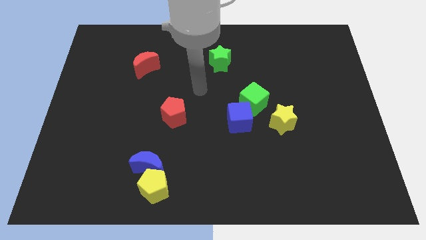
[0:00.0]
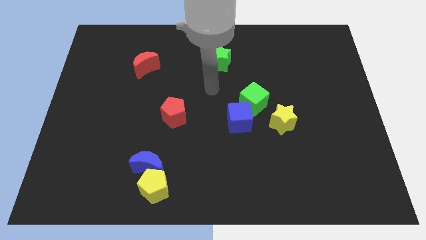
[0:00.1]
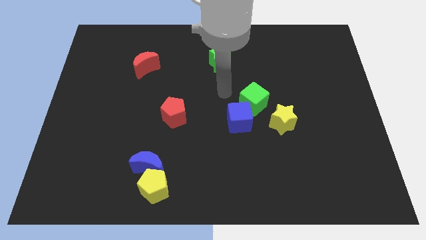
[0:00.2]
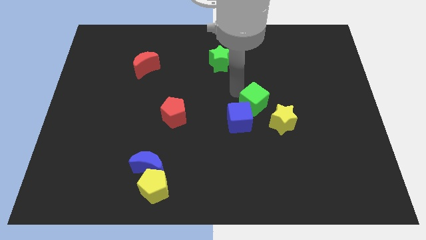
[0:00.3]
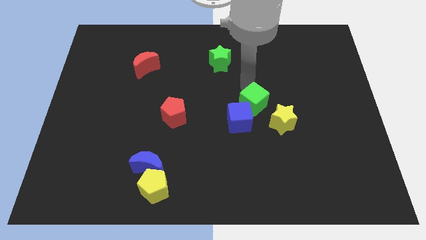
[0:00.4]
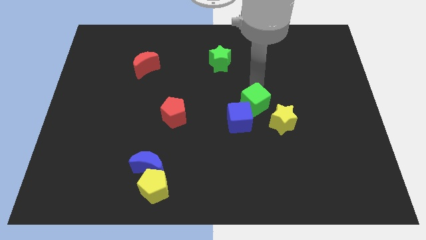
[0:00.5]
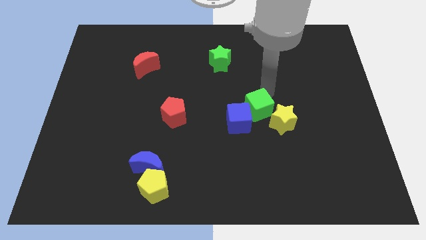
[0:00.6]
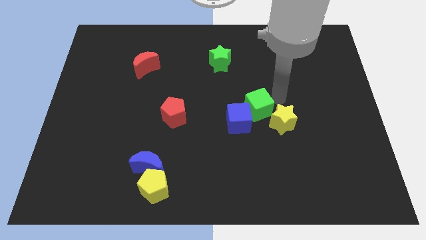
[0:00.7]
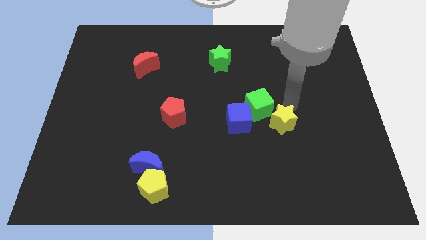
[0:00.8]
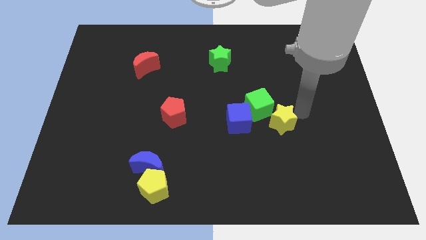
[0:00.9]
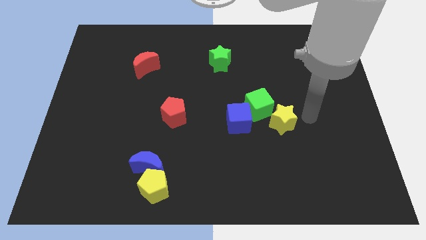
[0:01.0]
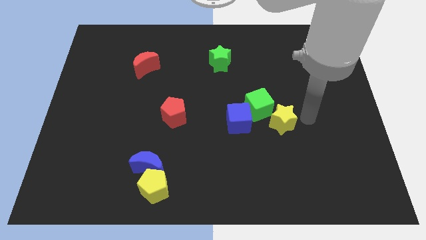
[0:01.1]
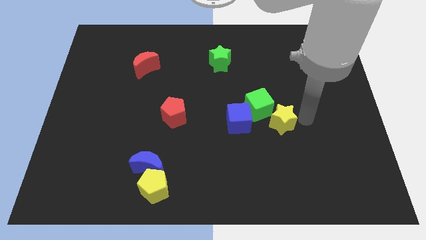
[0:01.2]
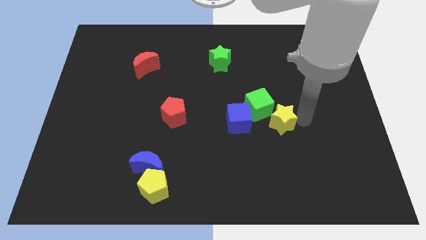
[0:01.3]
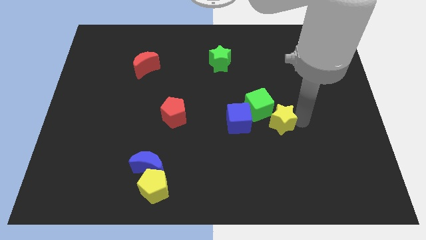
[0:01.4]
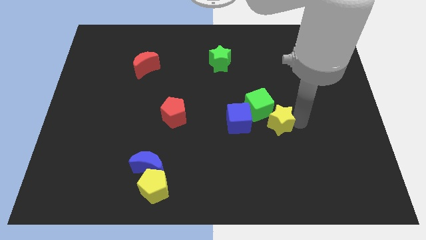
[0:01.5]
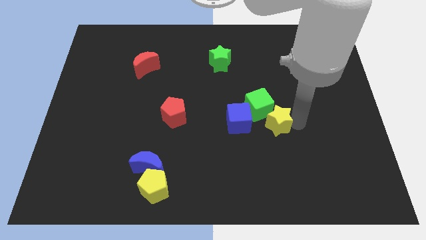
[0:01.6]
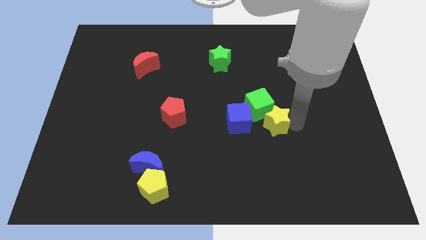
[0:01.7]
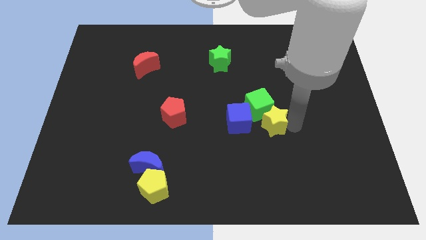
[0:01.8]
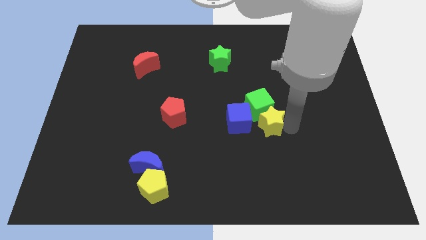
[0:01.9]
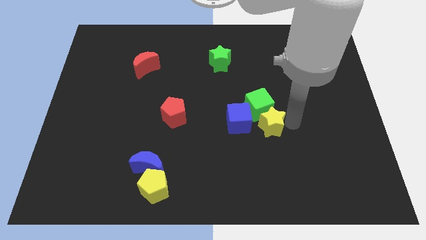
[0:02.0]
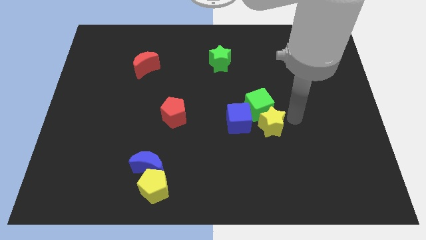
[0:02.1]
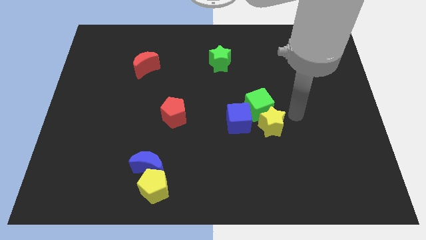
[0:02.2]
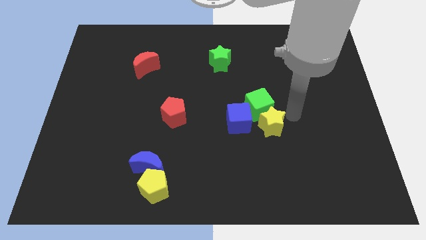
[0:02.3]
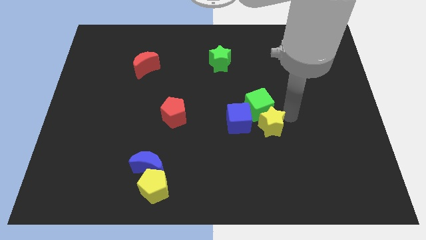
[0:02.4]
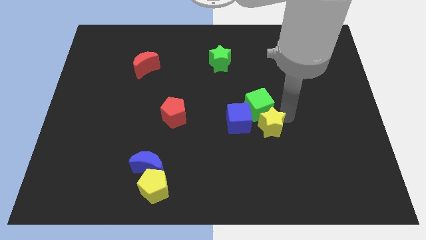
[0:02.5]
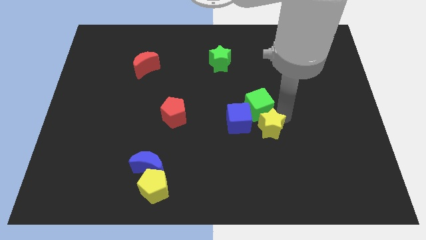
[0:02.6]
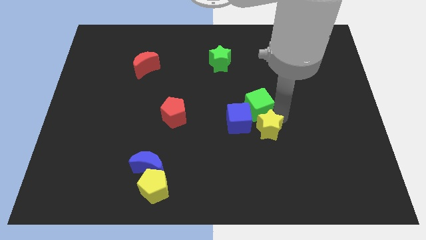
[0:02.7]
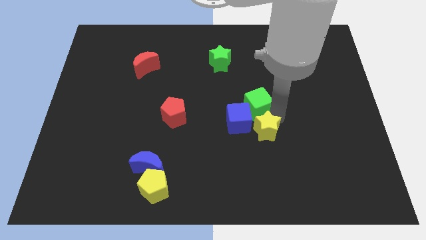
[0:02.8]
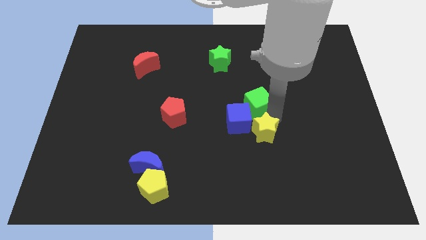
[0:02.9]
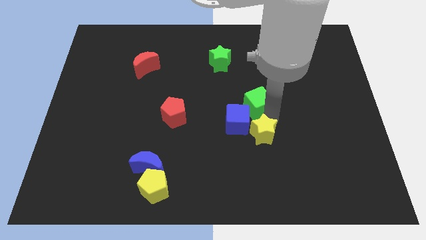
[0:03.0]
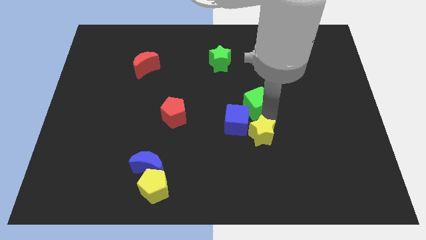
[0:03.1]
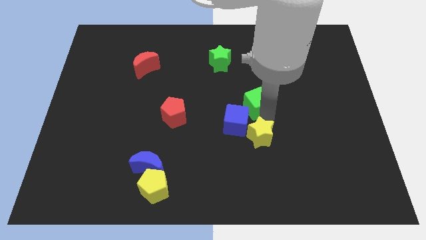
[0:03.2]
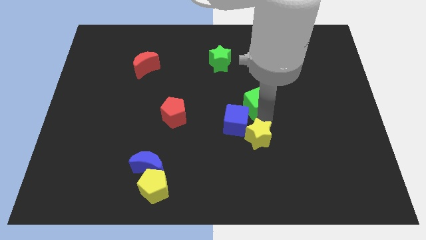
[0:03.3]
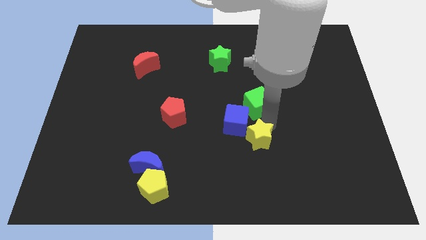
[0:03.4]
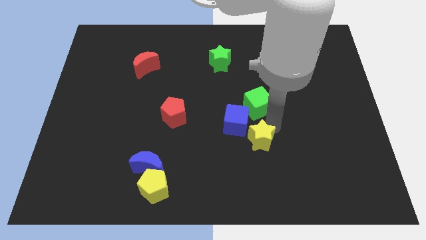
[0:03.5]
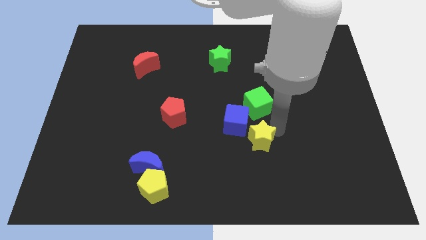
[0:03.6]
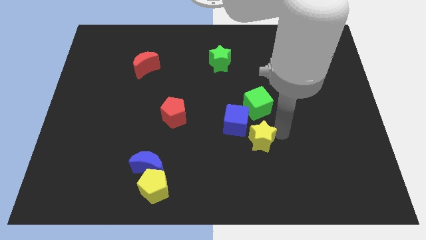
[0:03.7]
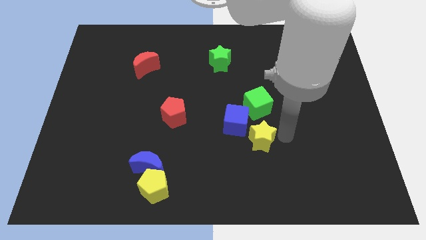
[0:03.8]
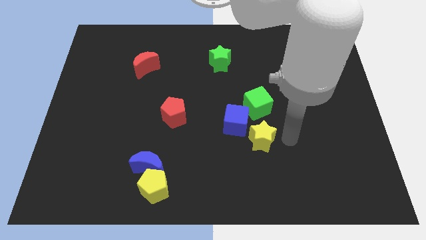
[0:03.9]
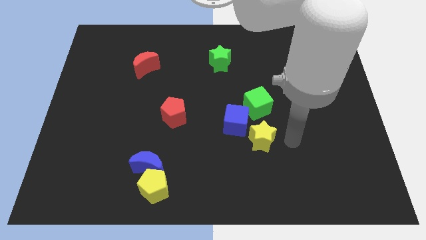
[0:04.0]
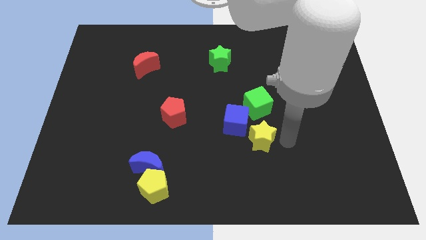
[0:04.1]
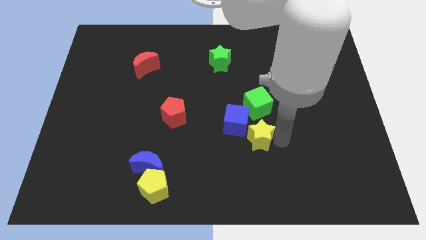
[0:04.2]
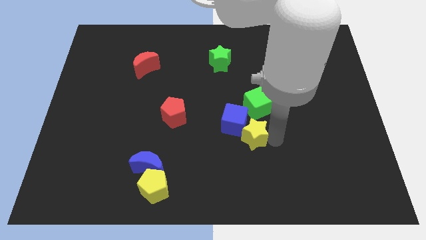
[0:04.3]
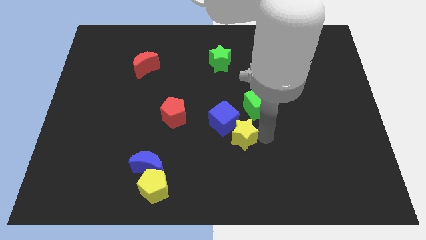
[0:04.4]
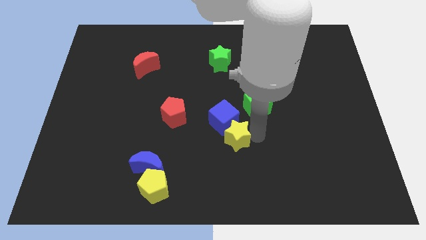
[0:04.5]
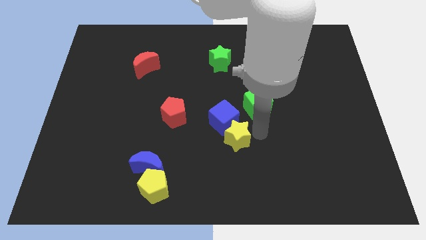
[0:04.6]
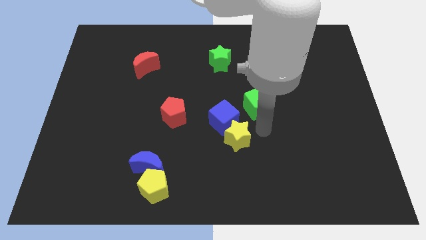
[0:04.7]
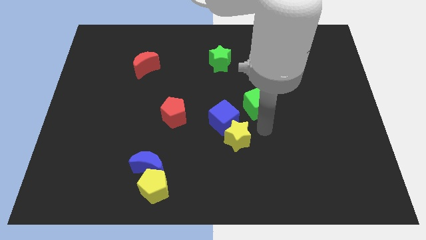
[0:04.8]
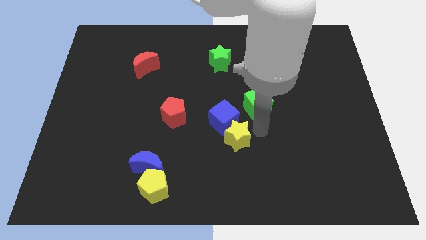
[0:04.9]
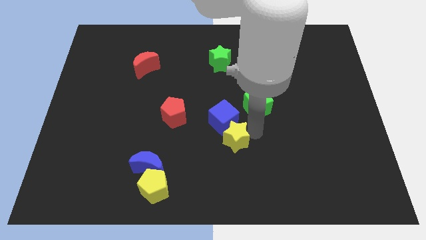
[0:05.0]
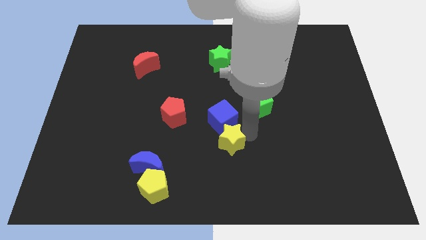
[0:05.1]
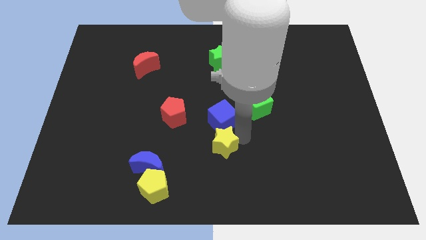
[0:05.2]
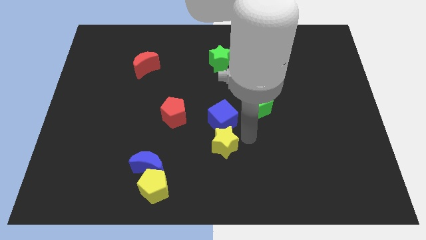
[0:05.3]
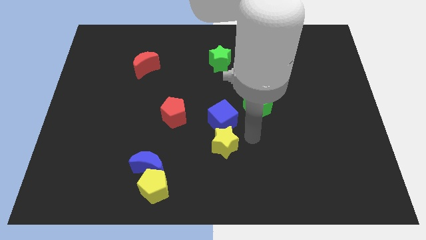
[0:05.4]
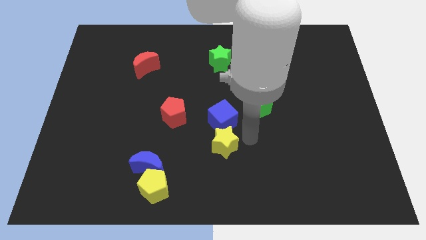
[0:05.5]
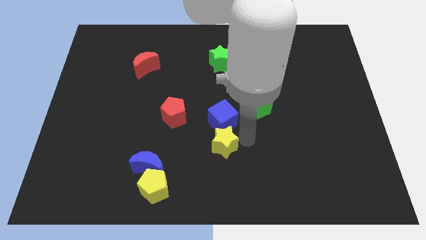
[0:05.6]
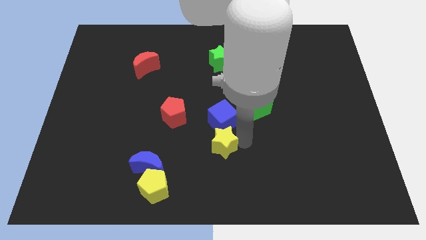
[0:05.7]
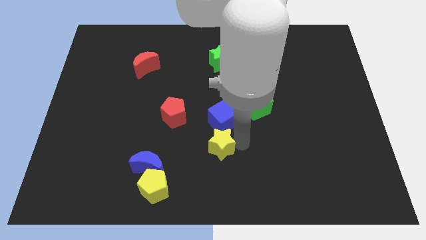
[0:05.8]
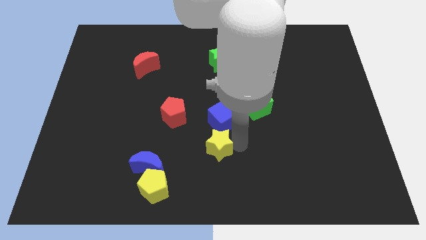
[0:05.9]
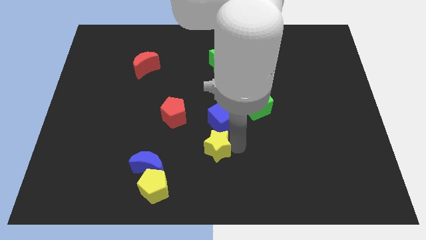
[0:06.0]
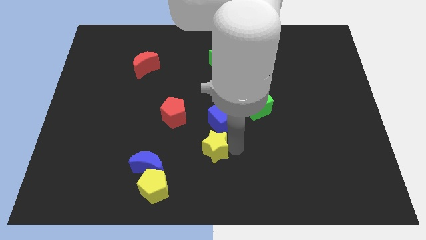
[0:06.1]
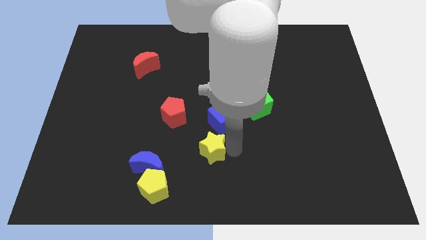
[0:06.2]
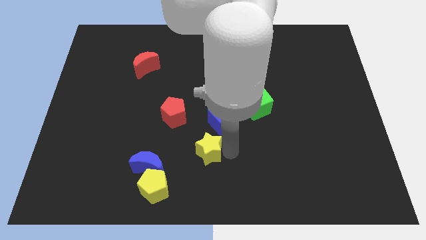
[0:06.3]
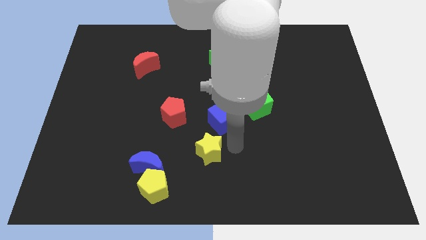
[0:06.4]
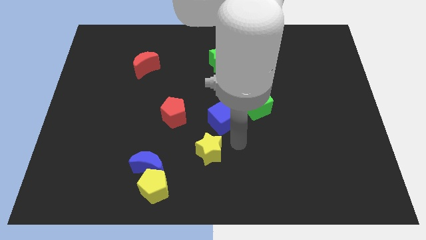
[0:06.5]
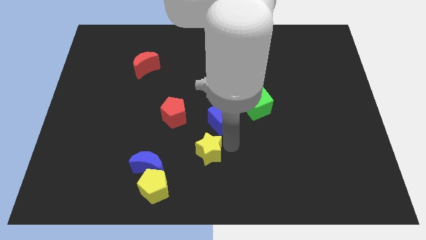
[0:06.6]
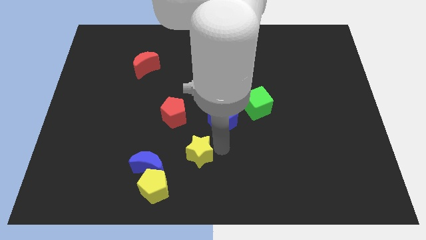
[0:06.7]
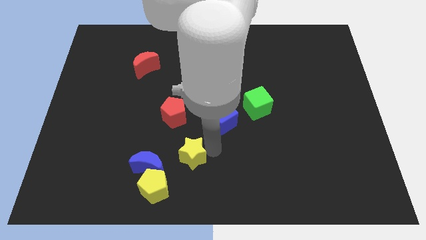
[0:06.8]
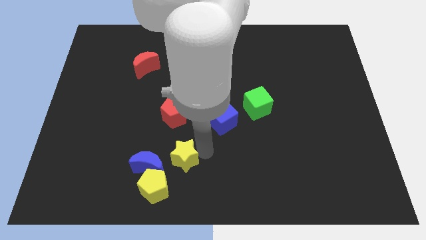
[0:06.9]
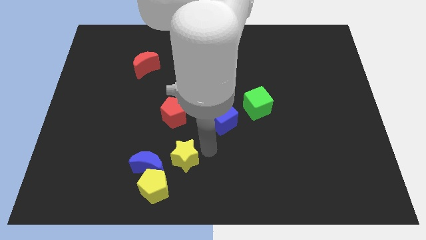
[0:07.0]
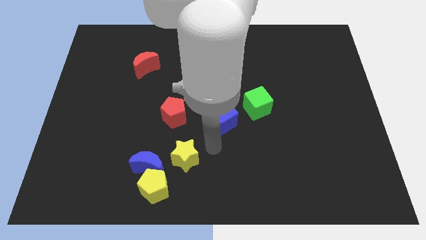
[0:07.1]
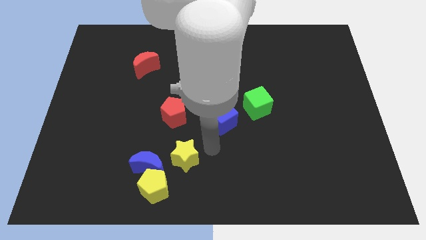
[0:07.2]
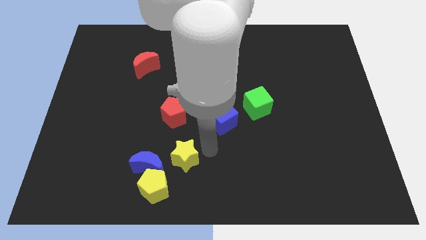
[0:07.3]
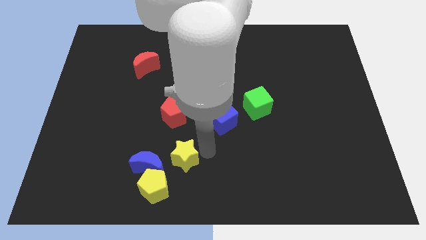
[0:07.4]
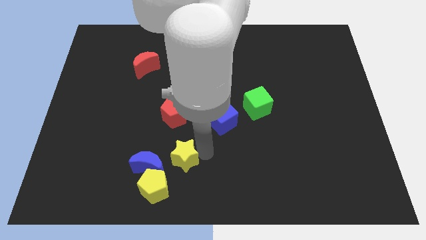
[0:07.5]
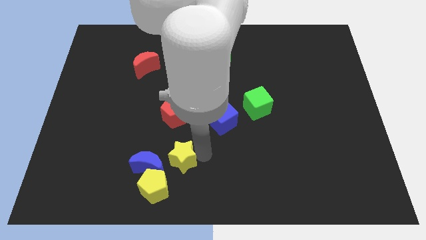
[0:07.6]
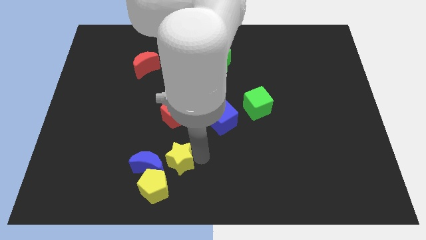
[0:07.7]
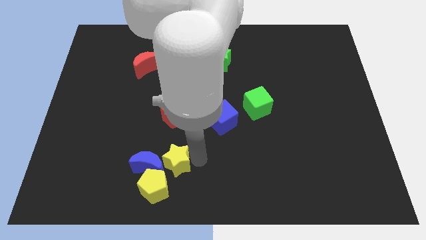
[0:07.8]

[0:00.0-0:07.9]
move the yellow star next to the blue moon
